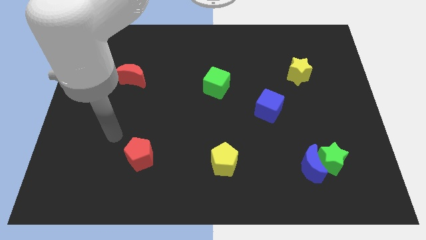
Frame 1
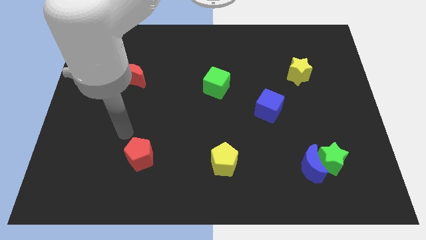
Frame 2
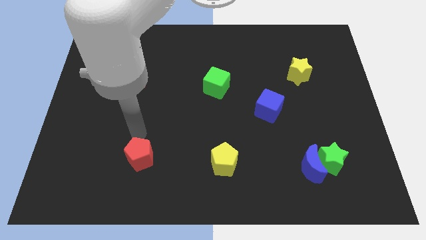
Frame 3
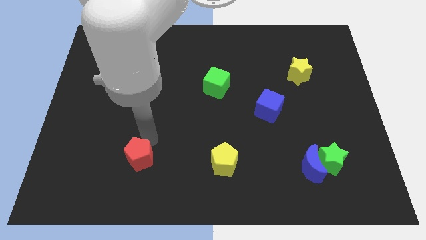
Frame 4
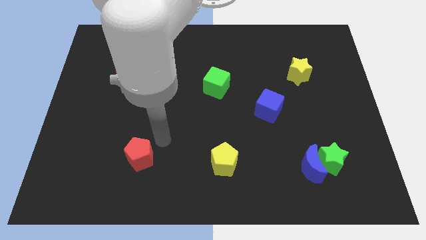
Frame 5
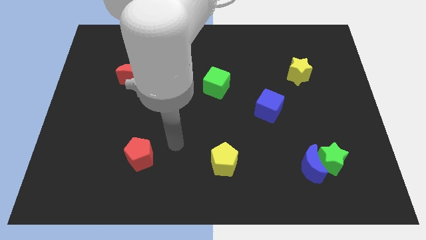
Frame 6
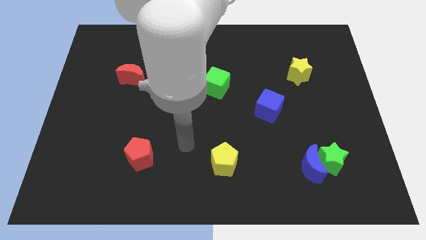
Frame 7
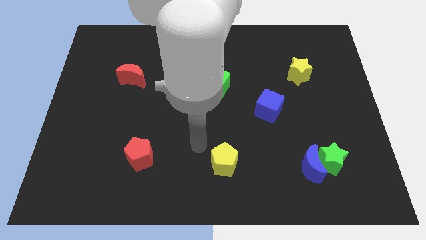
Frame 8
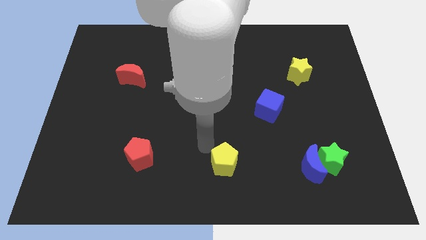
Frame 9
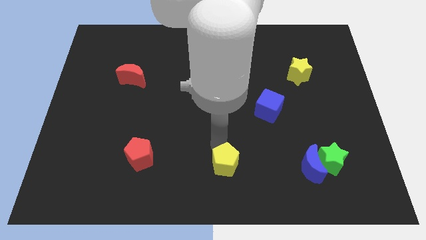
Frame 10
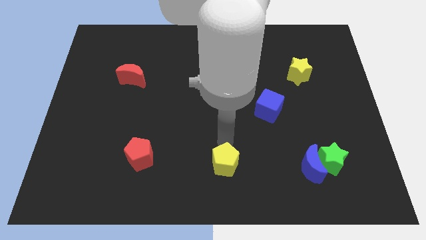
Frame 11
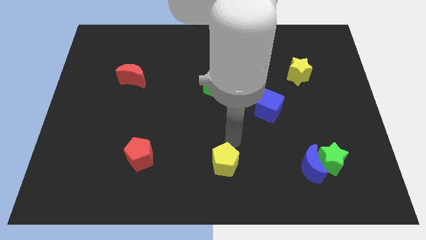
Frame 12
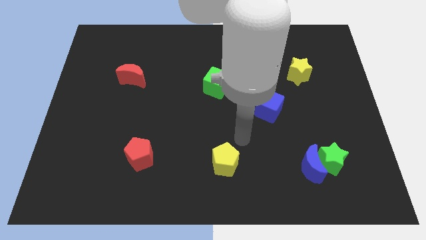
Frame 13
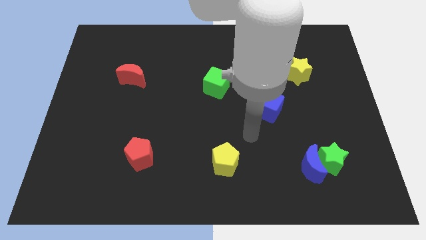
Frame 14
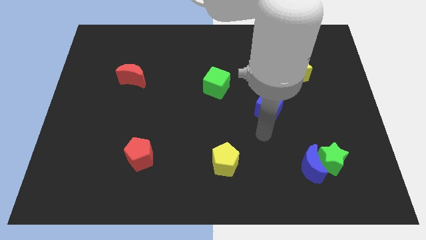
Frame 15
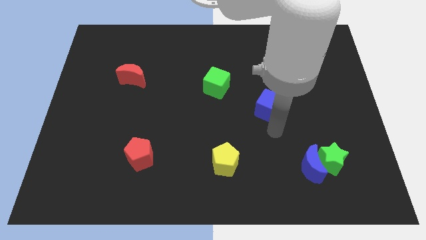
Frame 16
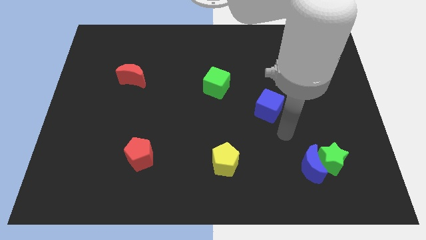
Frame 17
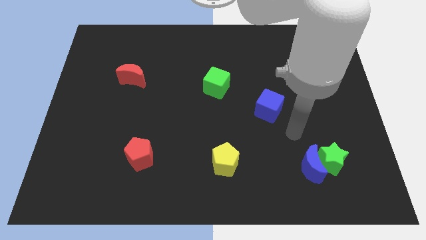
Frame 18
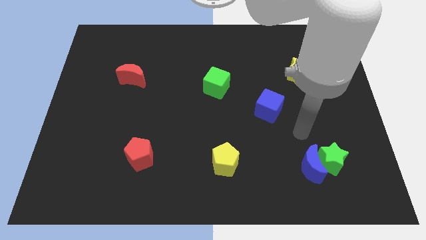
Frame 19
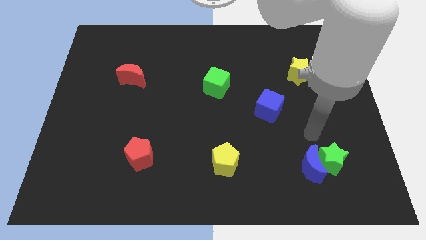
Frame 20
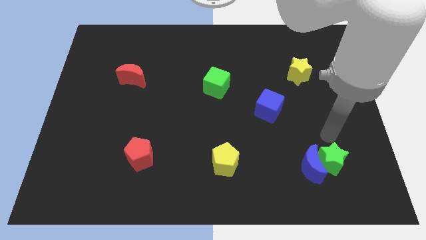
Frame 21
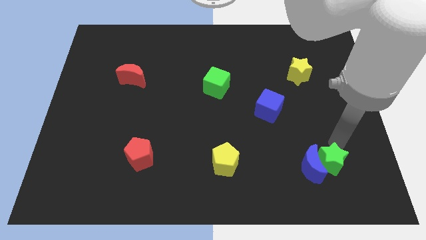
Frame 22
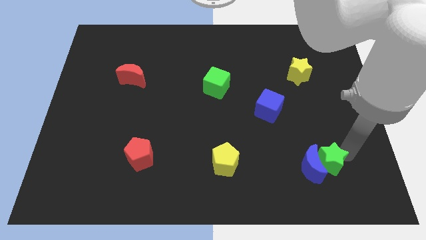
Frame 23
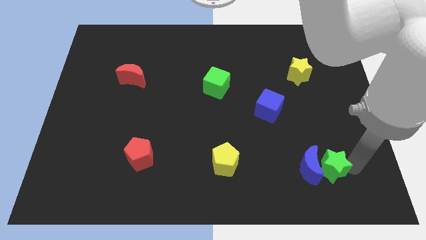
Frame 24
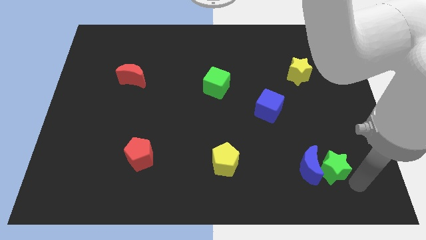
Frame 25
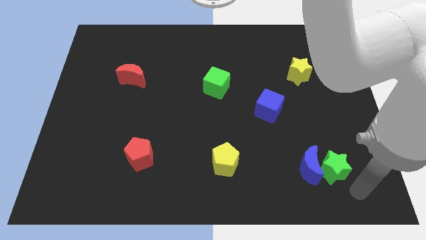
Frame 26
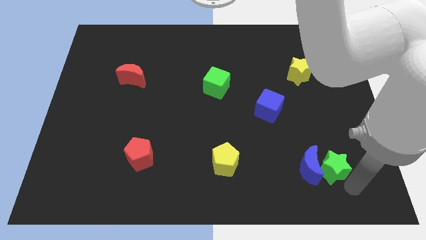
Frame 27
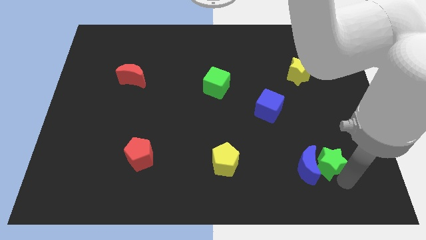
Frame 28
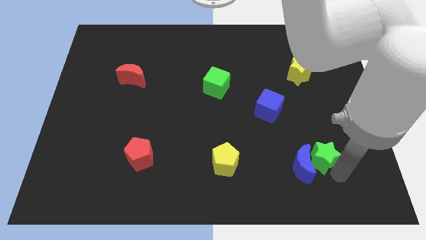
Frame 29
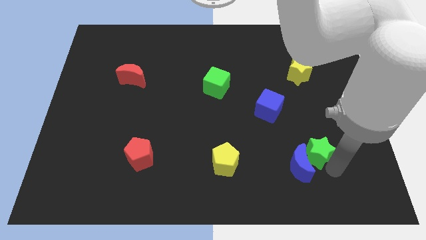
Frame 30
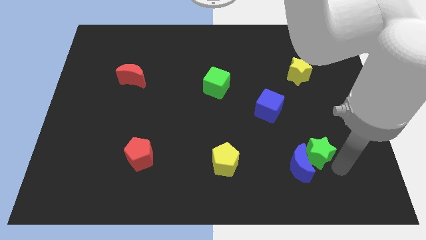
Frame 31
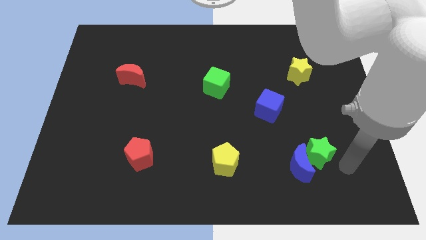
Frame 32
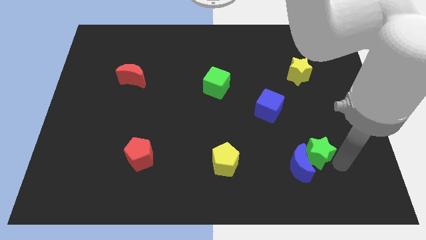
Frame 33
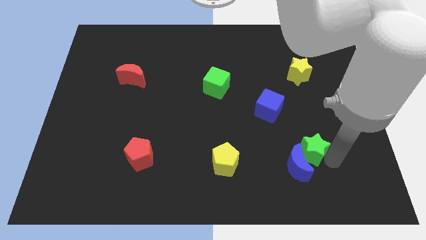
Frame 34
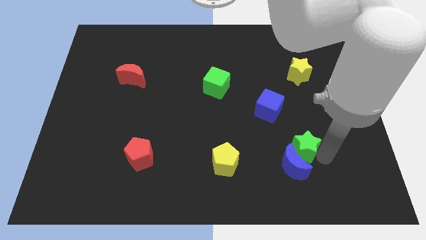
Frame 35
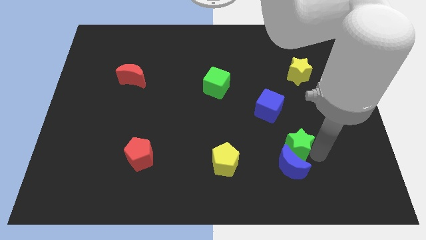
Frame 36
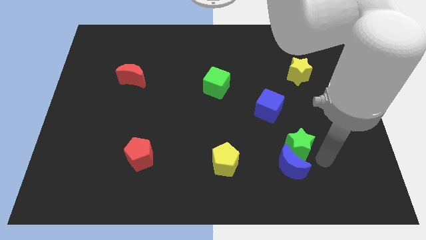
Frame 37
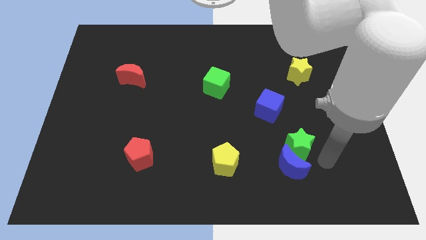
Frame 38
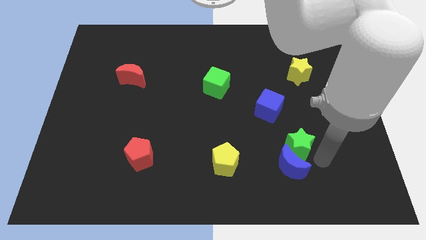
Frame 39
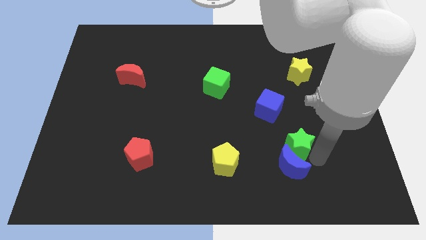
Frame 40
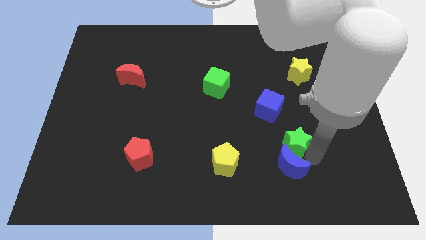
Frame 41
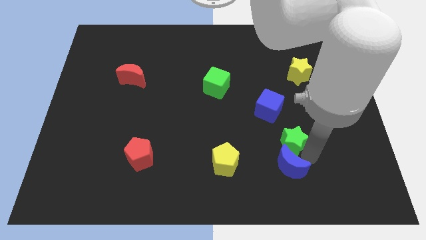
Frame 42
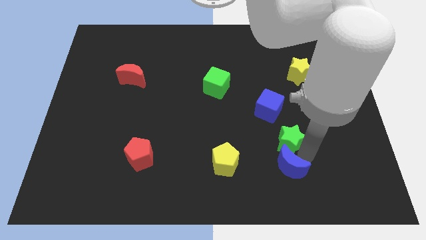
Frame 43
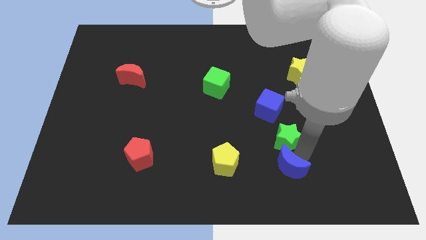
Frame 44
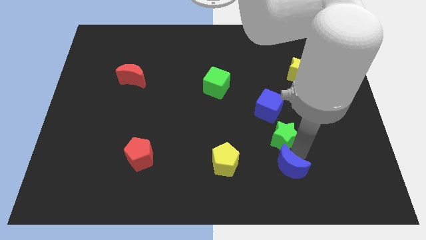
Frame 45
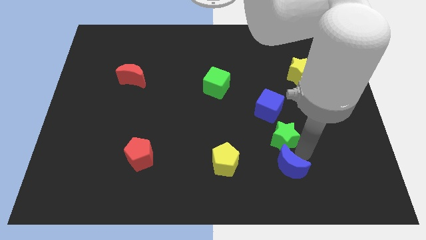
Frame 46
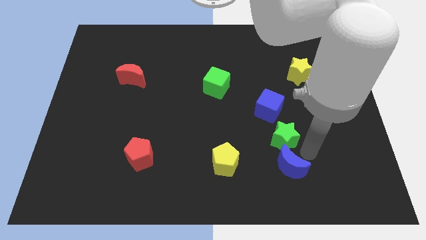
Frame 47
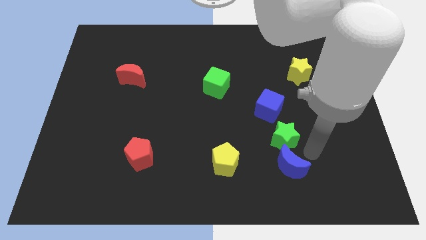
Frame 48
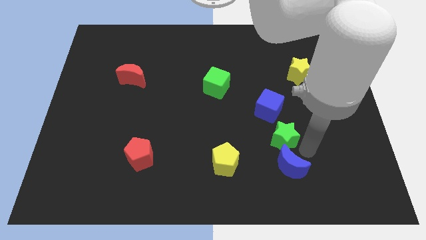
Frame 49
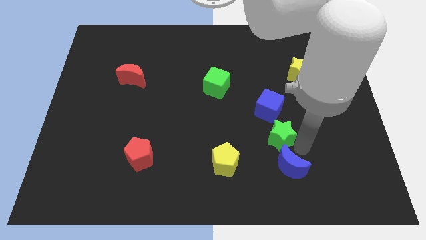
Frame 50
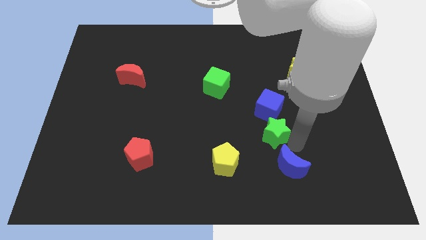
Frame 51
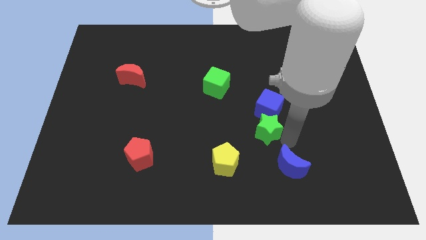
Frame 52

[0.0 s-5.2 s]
put the green star to the bottom left side of the blue cube

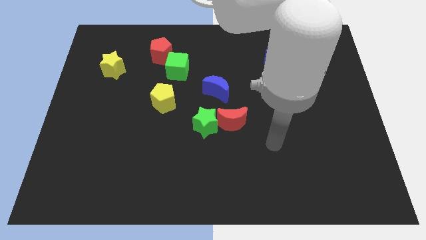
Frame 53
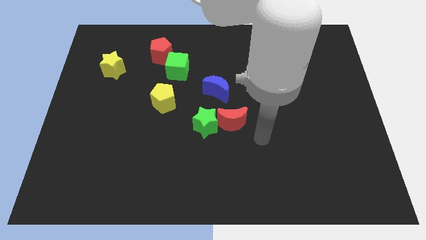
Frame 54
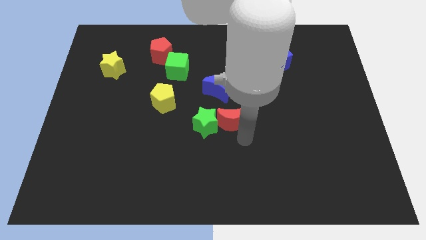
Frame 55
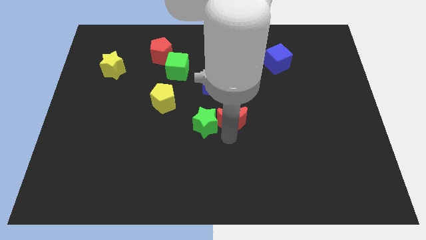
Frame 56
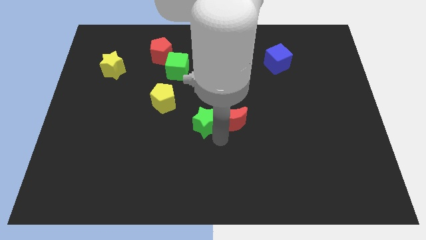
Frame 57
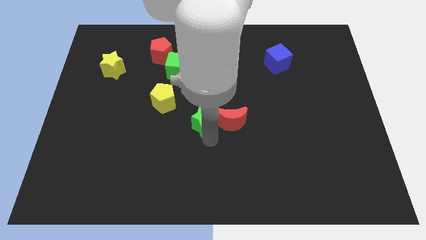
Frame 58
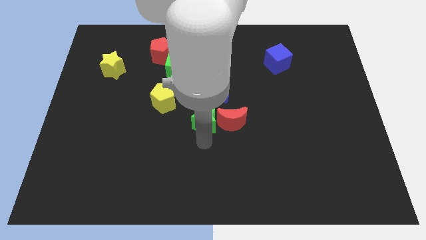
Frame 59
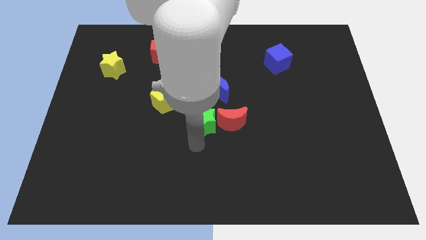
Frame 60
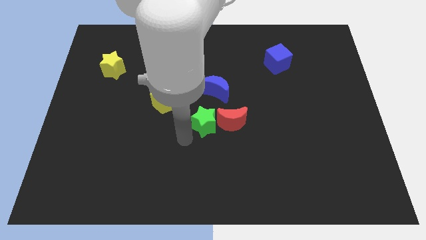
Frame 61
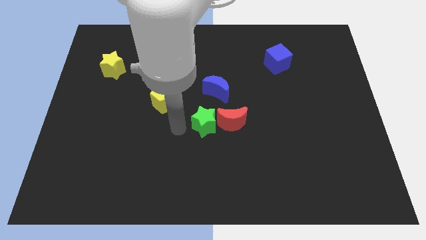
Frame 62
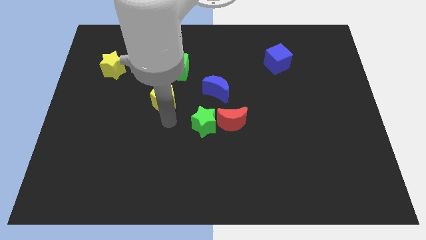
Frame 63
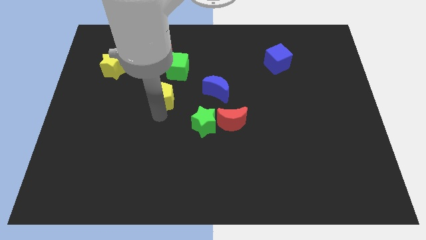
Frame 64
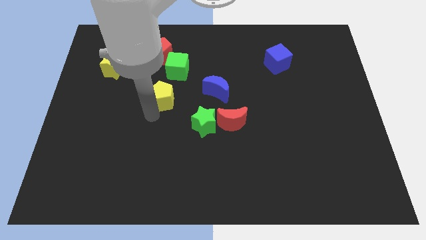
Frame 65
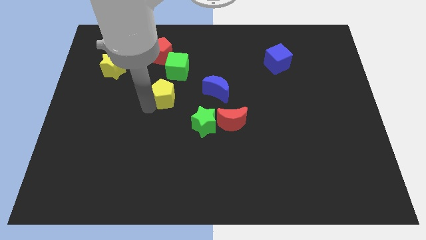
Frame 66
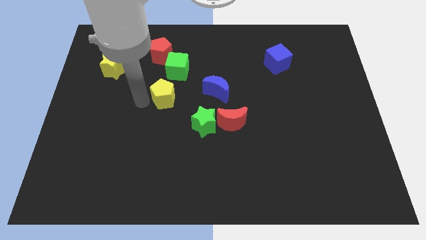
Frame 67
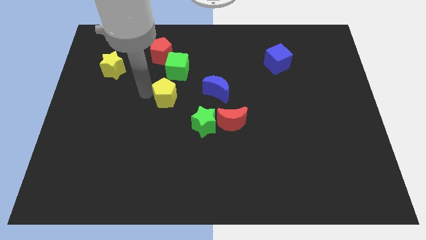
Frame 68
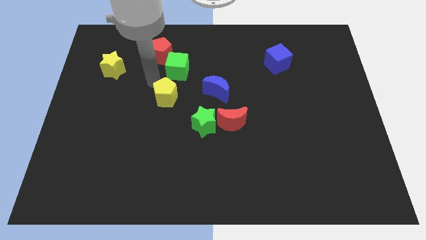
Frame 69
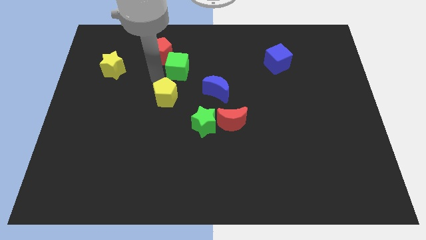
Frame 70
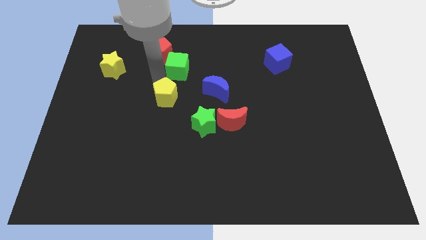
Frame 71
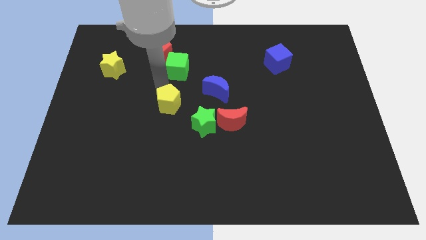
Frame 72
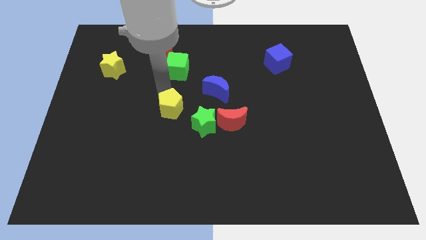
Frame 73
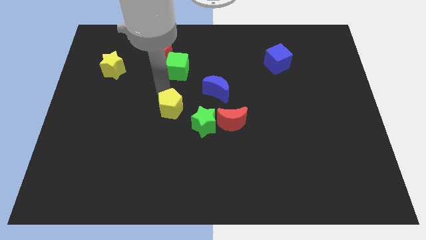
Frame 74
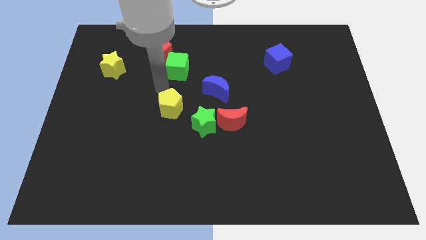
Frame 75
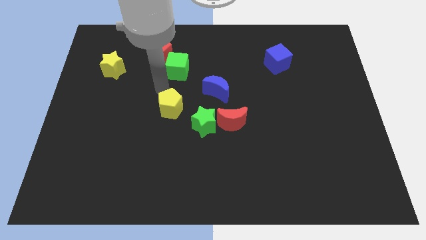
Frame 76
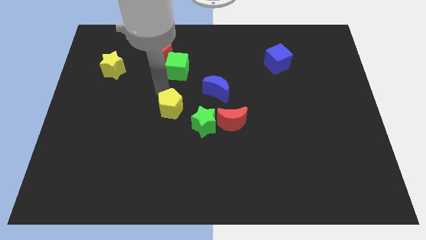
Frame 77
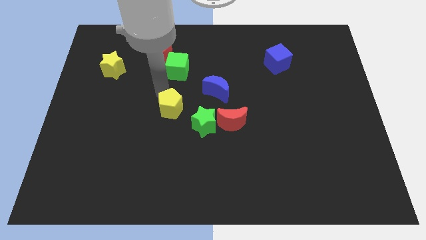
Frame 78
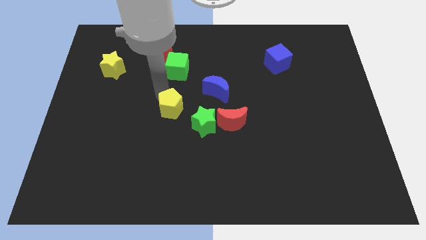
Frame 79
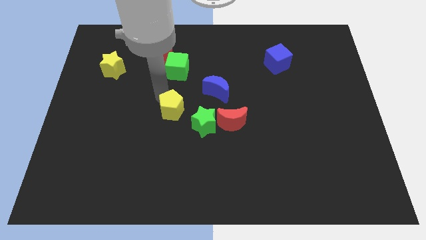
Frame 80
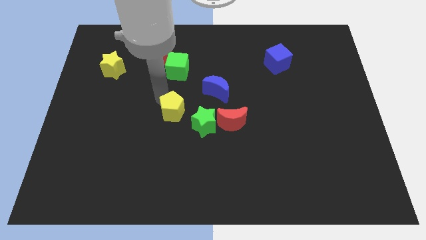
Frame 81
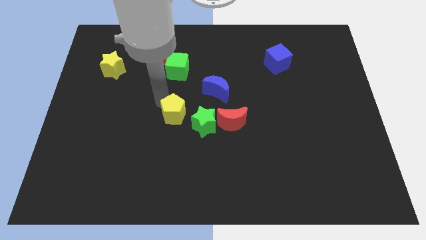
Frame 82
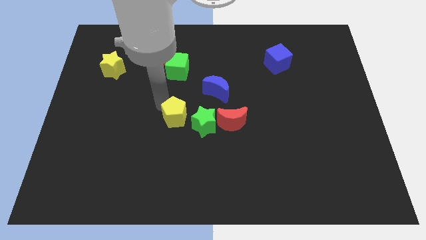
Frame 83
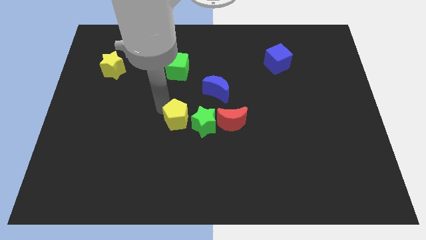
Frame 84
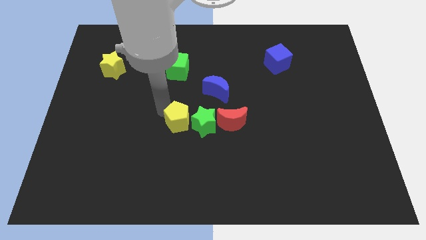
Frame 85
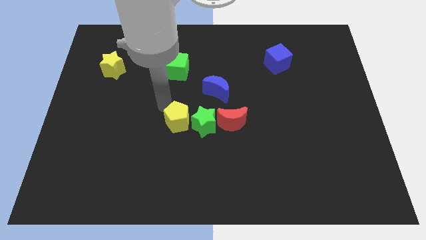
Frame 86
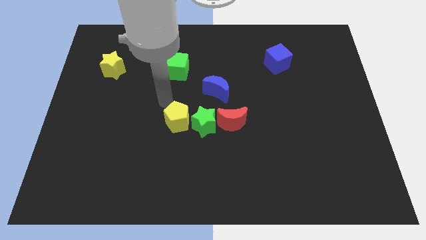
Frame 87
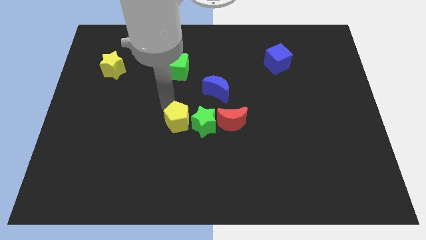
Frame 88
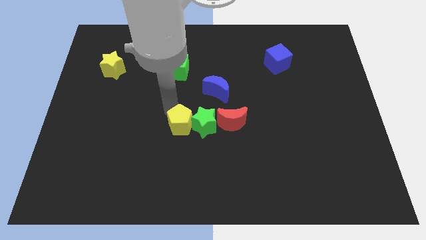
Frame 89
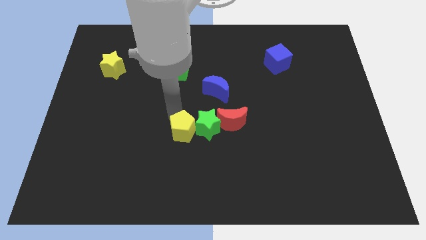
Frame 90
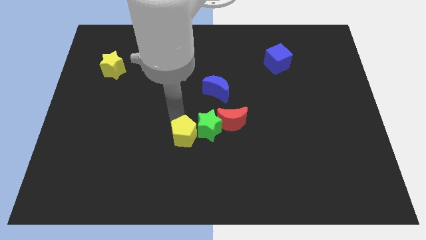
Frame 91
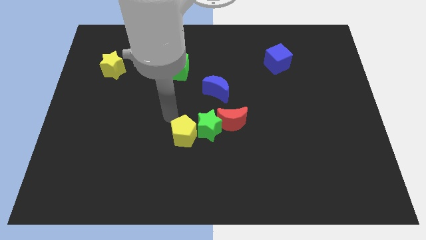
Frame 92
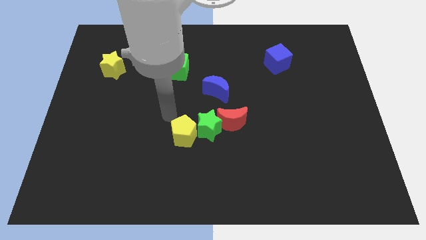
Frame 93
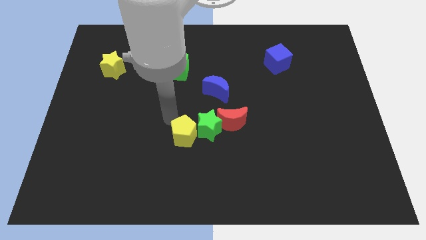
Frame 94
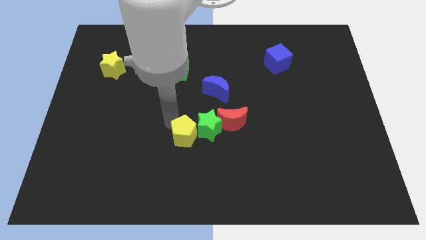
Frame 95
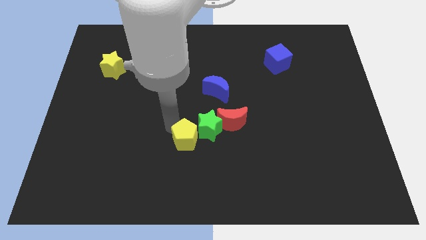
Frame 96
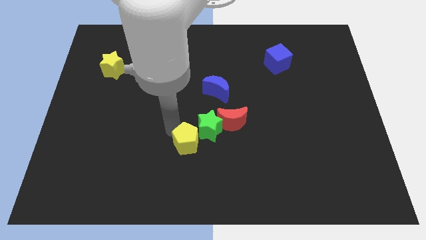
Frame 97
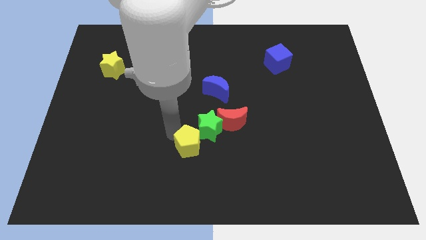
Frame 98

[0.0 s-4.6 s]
put the yellow pentagon to the bottom of the green star
